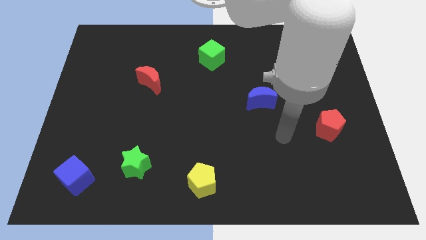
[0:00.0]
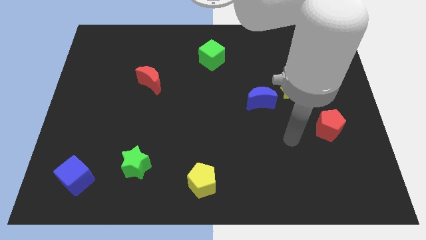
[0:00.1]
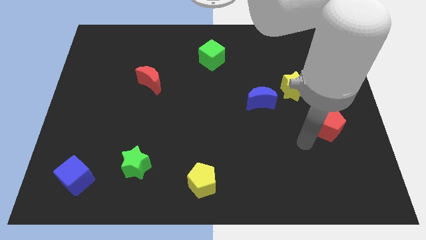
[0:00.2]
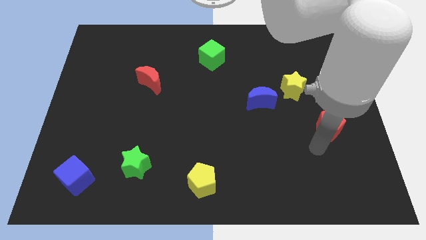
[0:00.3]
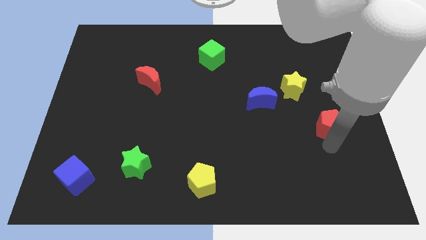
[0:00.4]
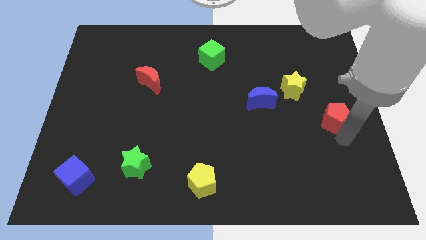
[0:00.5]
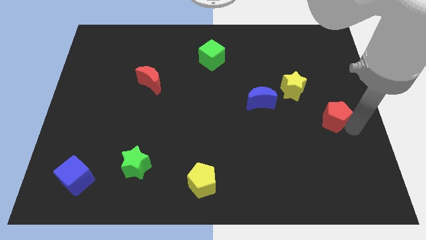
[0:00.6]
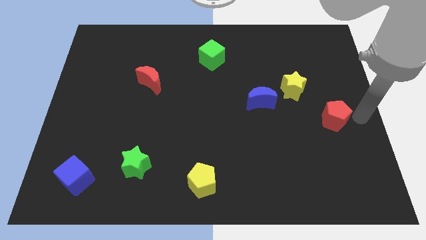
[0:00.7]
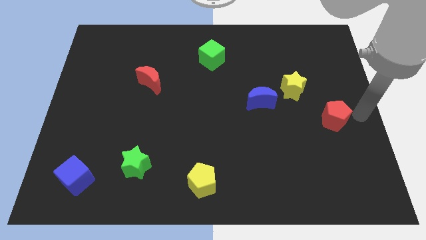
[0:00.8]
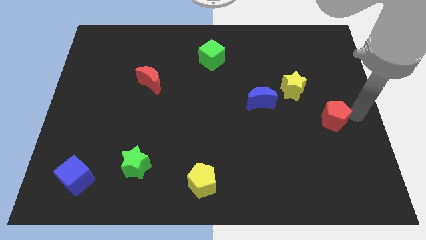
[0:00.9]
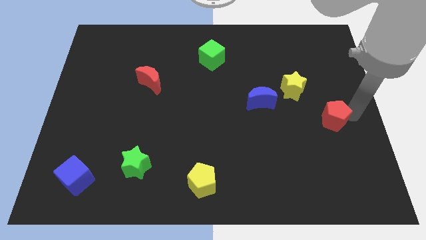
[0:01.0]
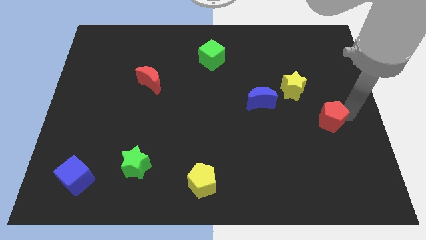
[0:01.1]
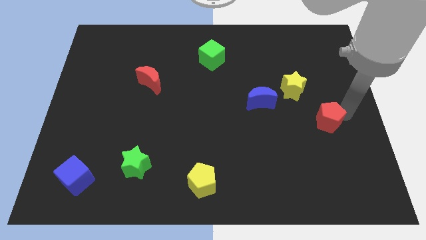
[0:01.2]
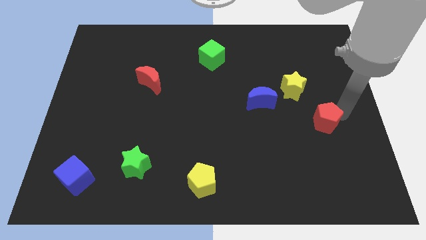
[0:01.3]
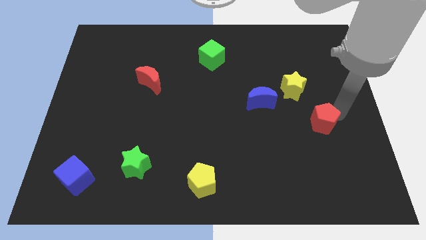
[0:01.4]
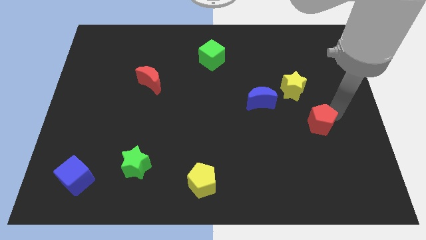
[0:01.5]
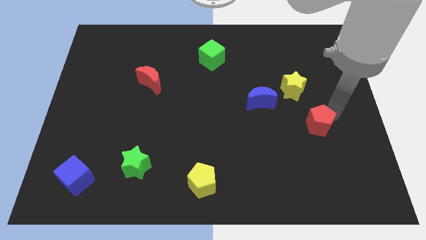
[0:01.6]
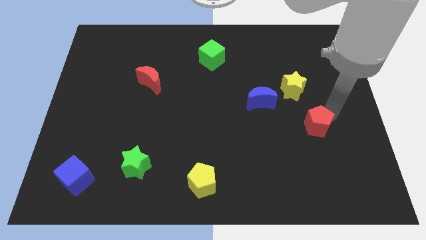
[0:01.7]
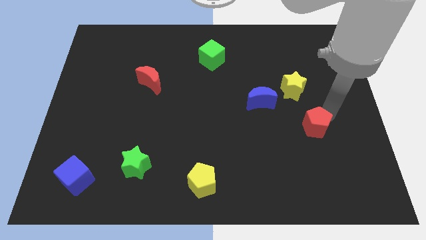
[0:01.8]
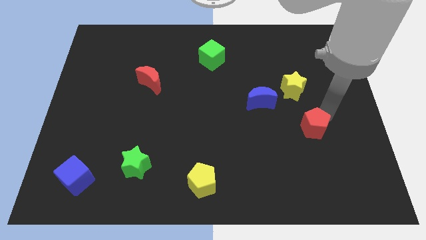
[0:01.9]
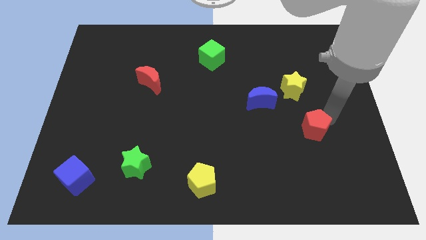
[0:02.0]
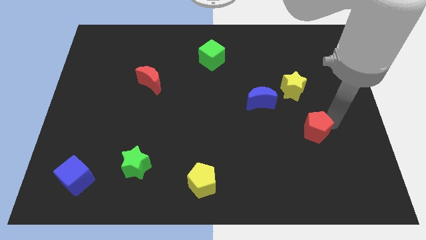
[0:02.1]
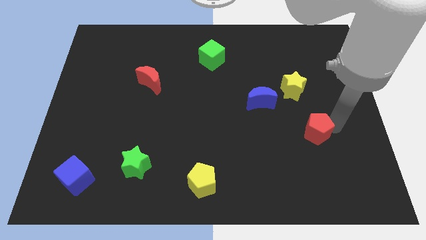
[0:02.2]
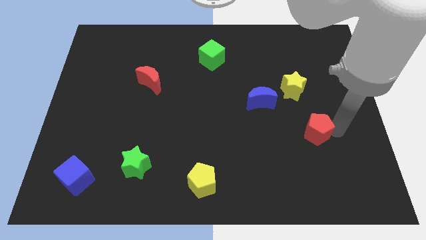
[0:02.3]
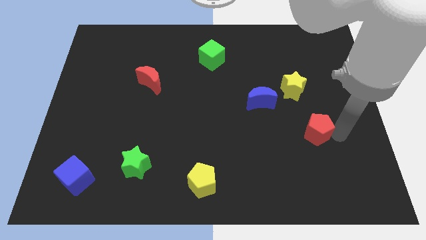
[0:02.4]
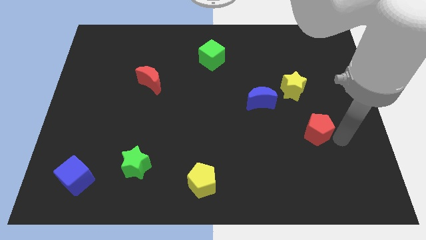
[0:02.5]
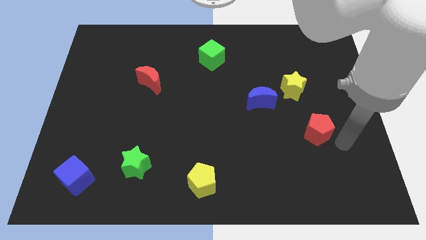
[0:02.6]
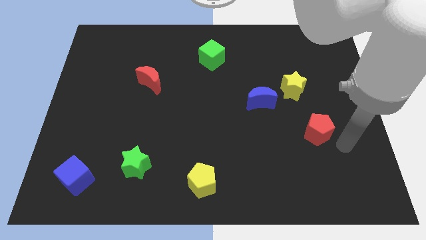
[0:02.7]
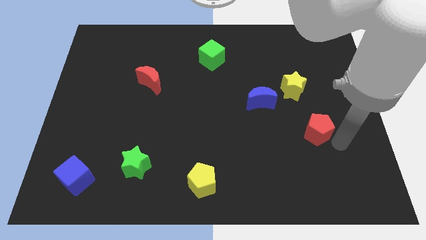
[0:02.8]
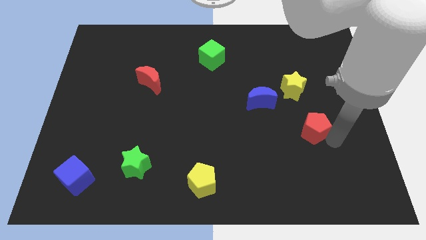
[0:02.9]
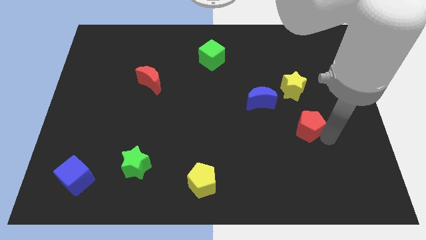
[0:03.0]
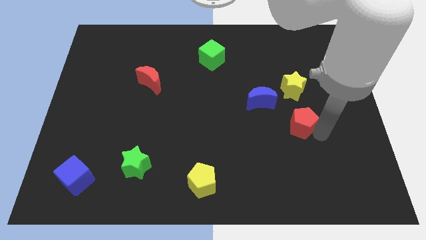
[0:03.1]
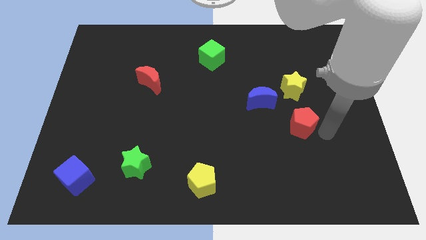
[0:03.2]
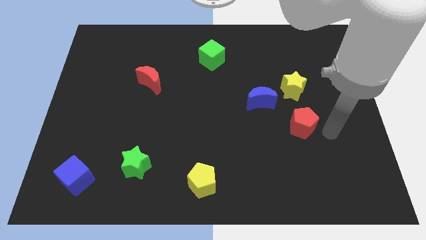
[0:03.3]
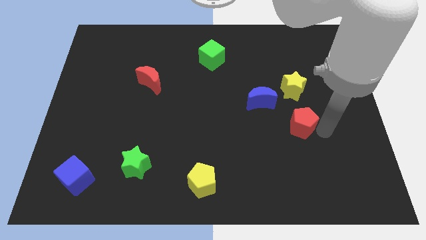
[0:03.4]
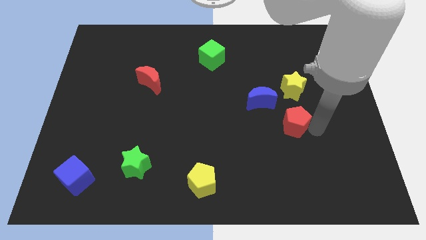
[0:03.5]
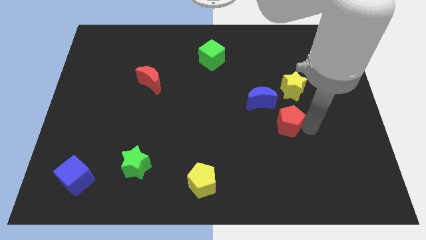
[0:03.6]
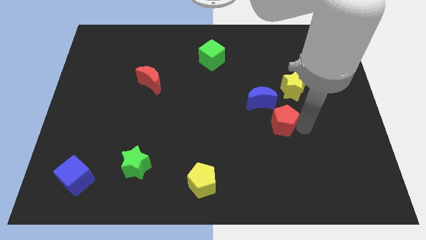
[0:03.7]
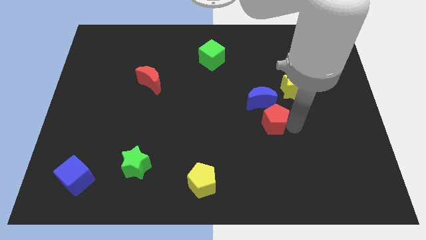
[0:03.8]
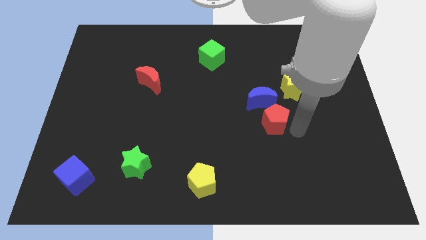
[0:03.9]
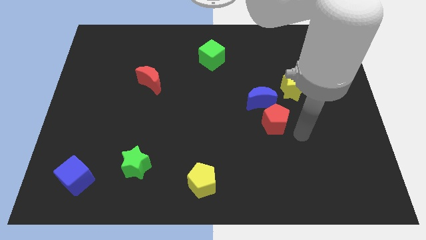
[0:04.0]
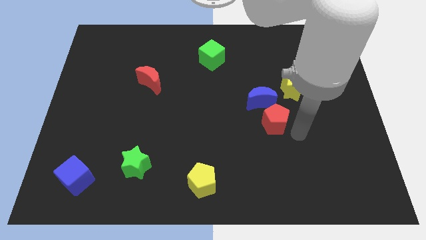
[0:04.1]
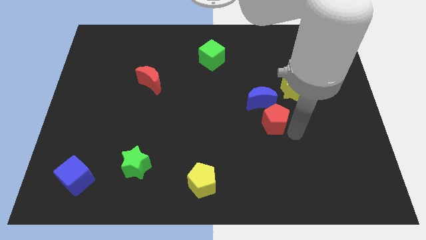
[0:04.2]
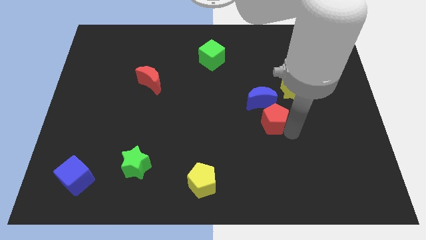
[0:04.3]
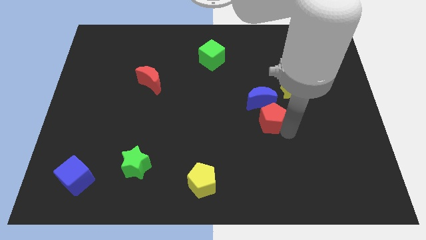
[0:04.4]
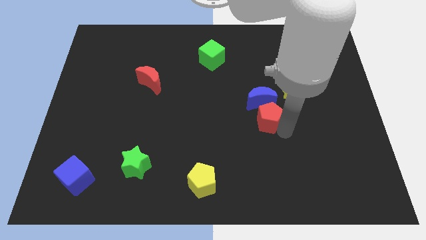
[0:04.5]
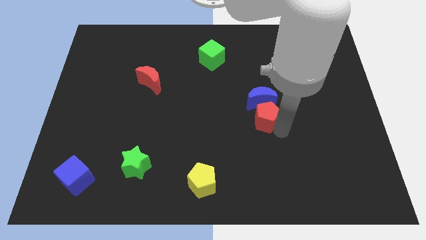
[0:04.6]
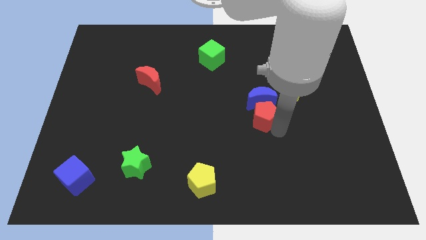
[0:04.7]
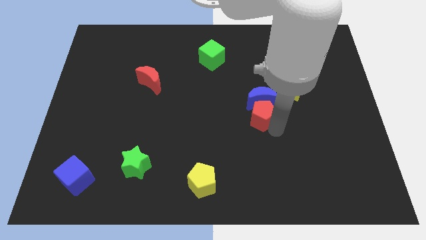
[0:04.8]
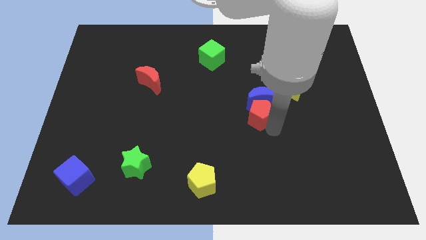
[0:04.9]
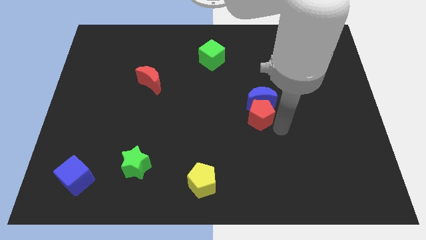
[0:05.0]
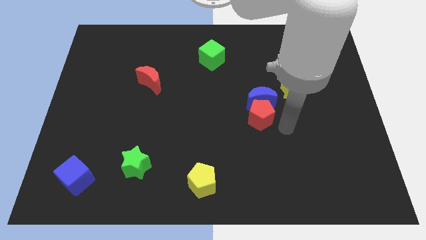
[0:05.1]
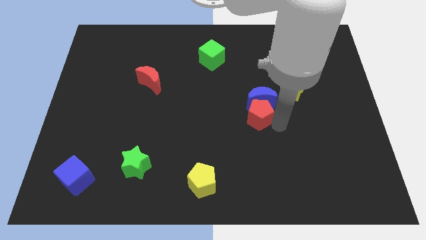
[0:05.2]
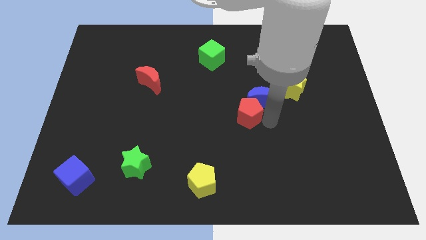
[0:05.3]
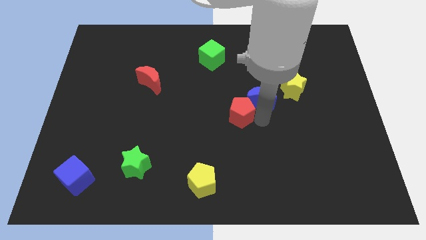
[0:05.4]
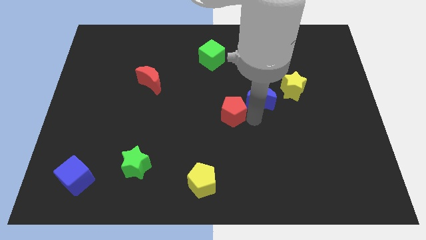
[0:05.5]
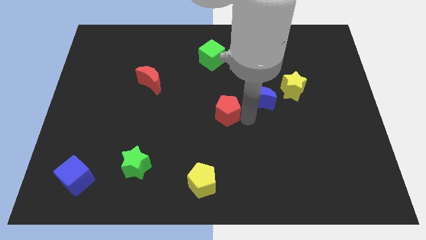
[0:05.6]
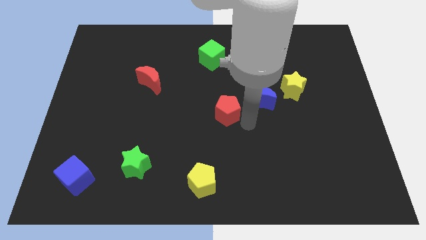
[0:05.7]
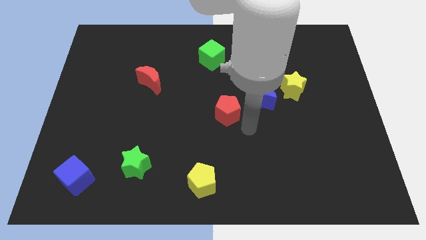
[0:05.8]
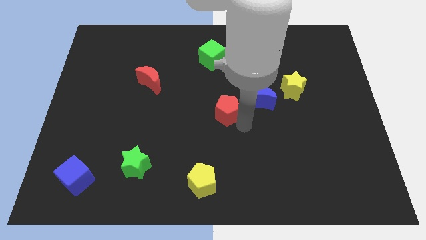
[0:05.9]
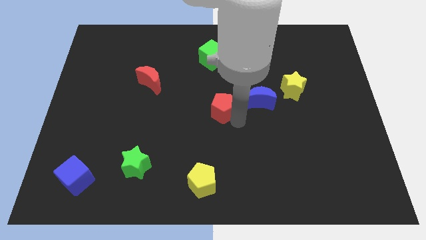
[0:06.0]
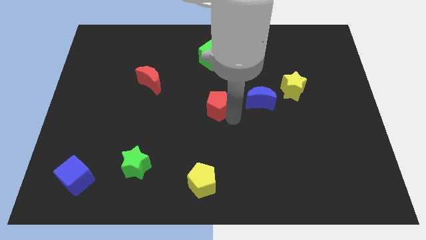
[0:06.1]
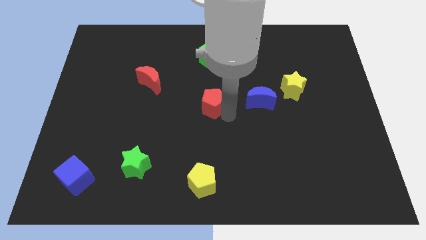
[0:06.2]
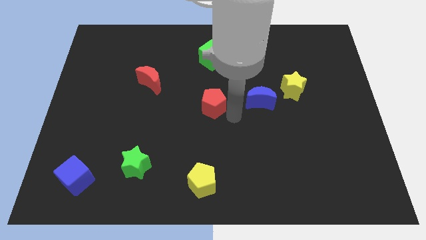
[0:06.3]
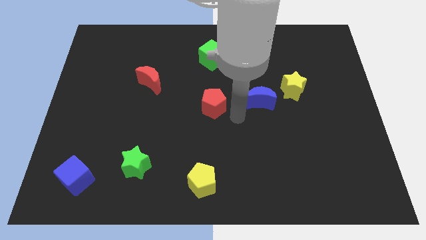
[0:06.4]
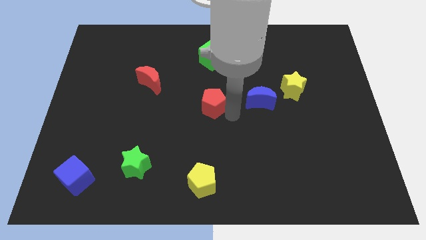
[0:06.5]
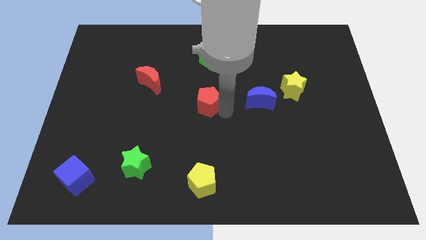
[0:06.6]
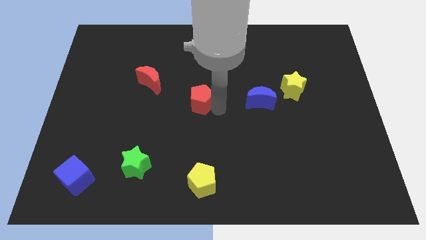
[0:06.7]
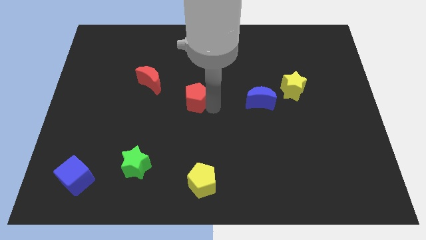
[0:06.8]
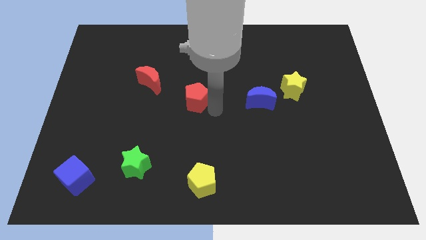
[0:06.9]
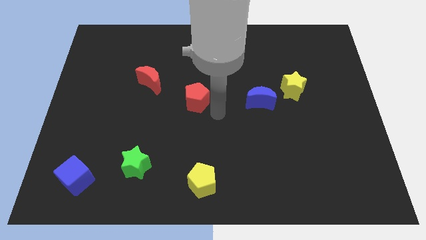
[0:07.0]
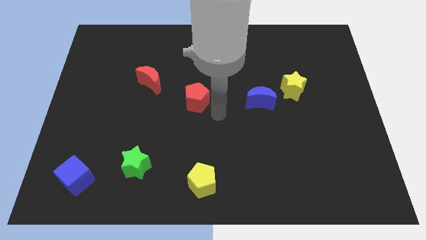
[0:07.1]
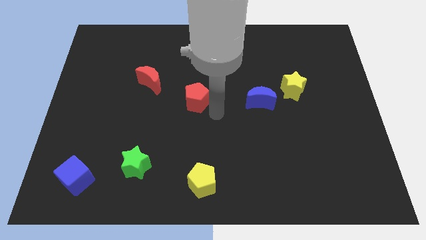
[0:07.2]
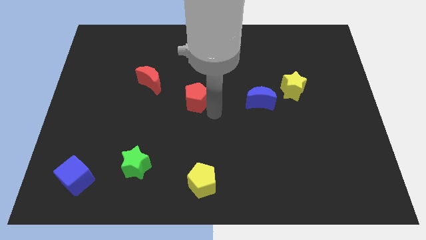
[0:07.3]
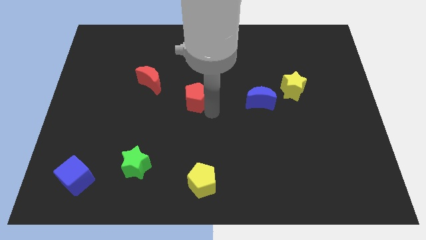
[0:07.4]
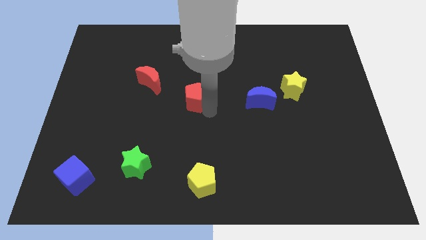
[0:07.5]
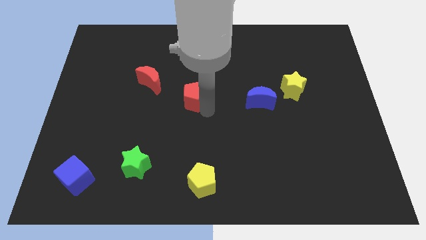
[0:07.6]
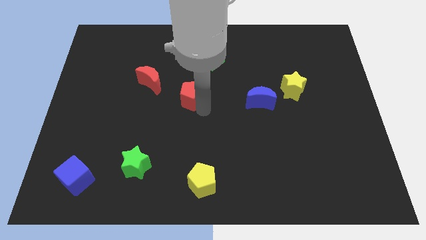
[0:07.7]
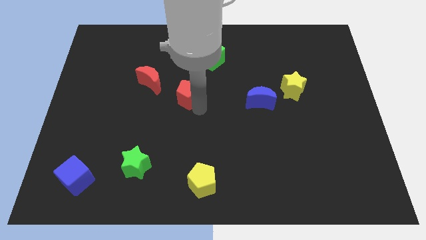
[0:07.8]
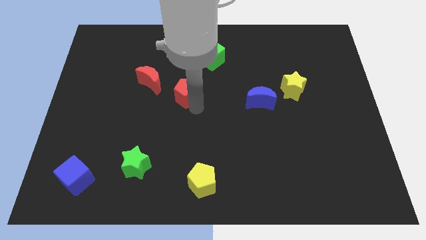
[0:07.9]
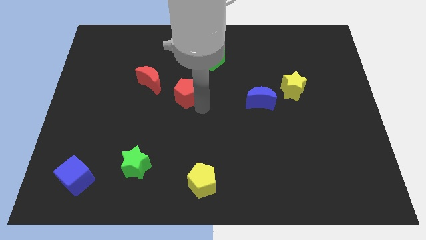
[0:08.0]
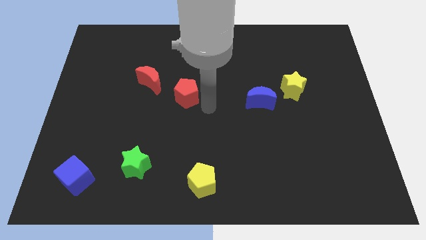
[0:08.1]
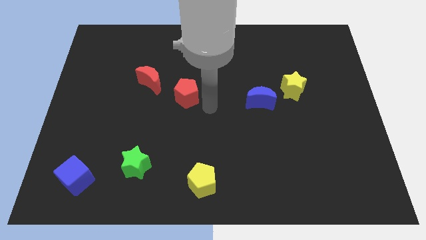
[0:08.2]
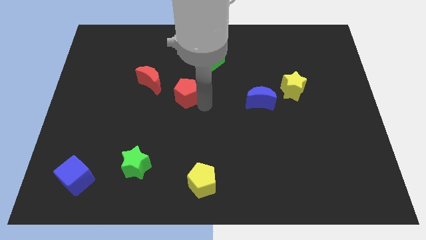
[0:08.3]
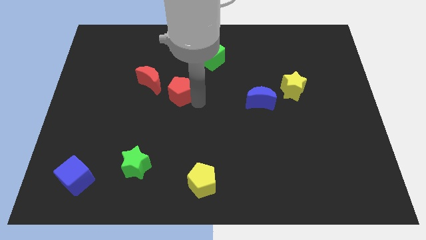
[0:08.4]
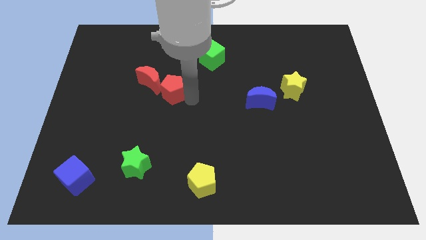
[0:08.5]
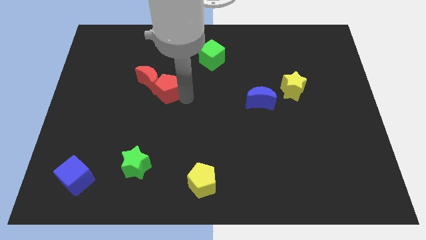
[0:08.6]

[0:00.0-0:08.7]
put the red pentagon close to the red moon
